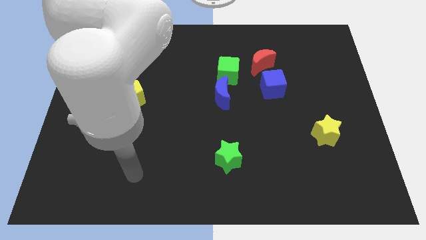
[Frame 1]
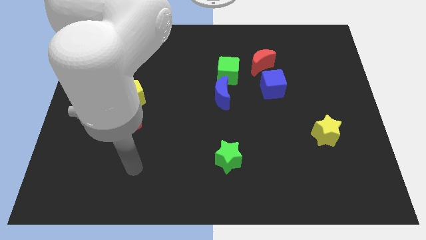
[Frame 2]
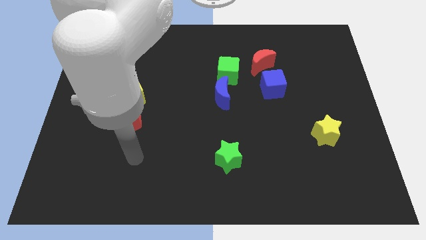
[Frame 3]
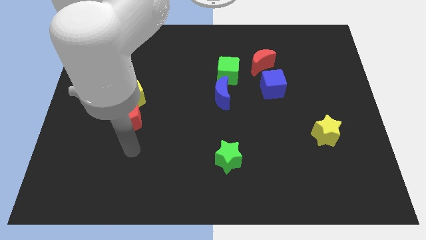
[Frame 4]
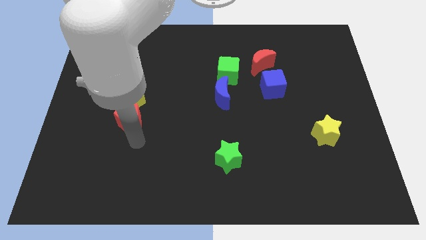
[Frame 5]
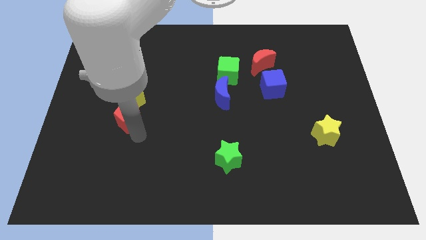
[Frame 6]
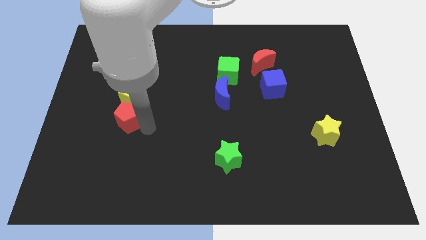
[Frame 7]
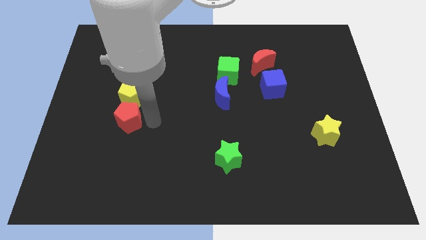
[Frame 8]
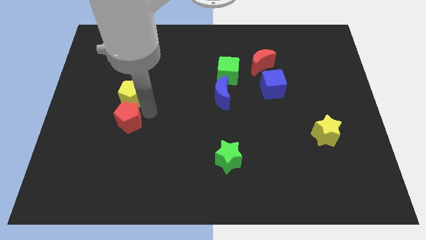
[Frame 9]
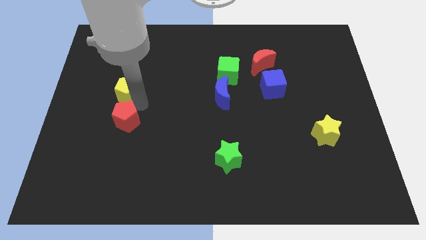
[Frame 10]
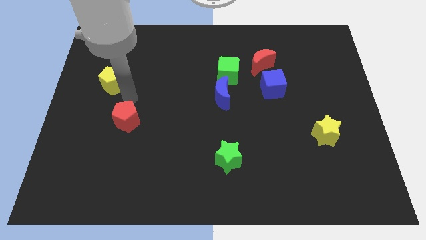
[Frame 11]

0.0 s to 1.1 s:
separate the red pentagon from the yellow pentagon

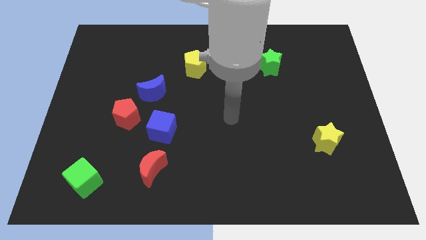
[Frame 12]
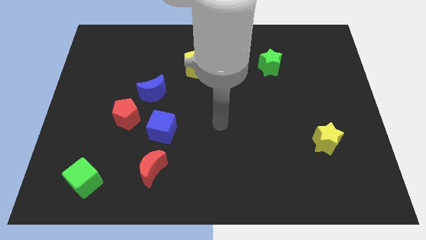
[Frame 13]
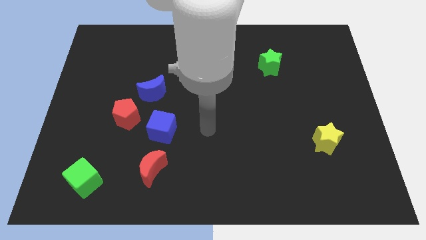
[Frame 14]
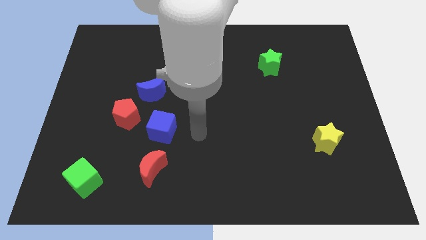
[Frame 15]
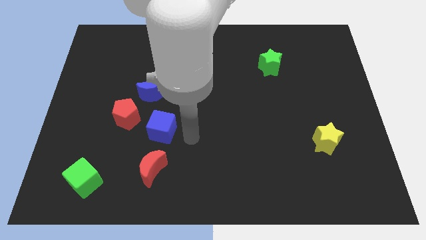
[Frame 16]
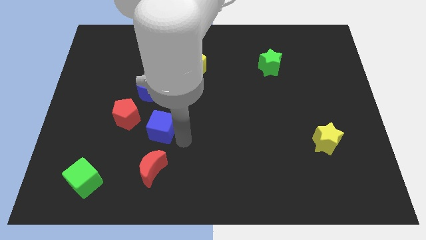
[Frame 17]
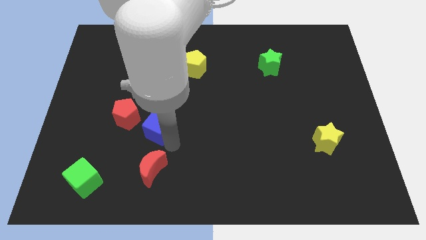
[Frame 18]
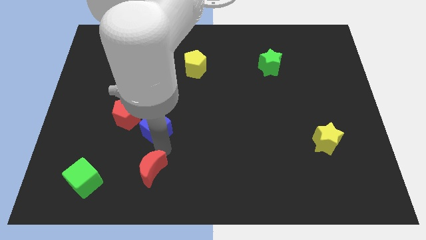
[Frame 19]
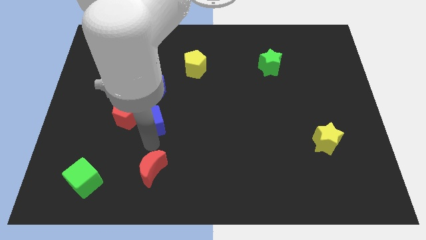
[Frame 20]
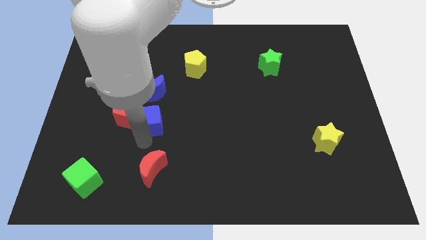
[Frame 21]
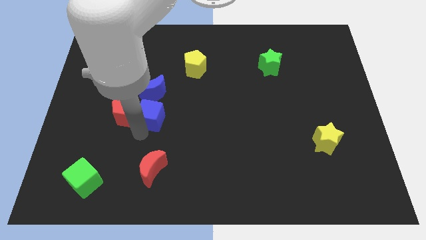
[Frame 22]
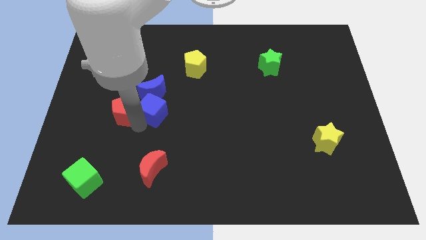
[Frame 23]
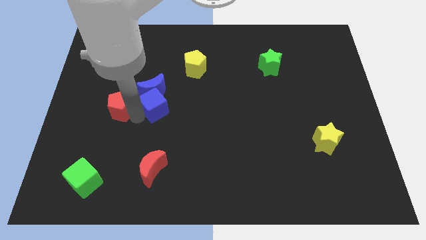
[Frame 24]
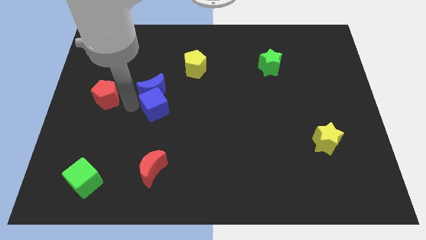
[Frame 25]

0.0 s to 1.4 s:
pull the blue moon apart from the red pentagon

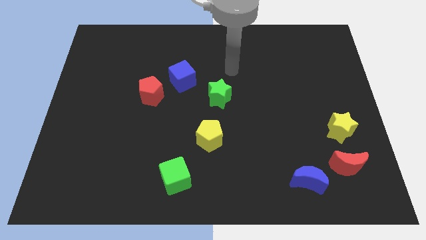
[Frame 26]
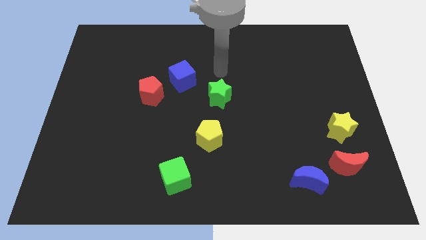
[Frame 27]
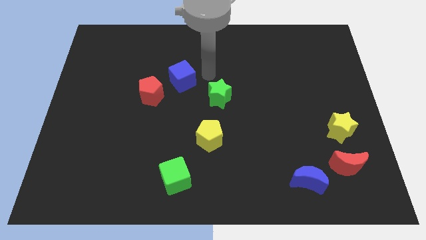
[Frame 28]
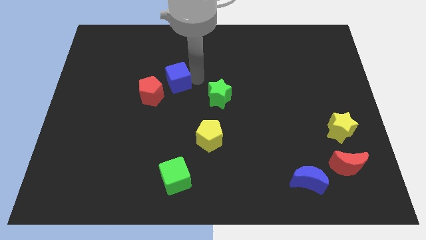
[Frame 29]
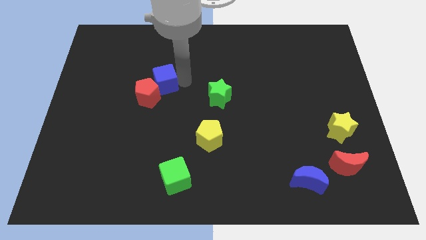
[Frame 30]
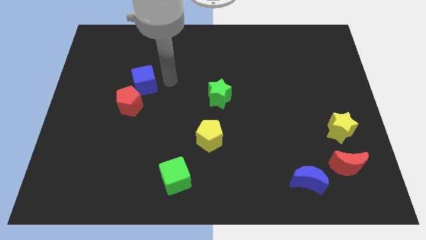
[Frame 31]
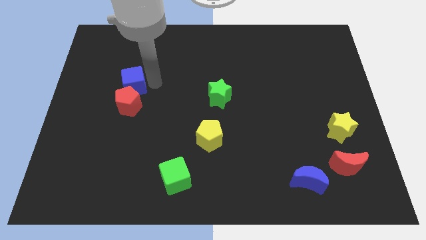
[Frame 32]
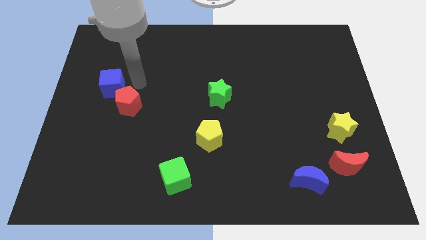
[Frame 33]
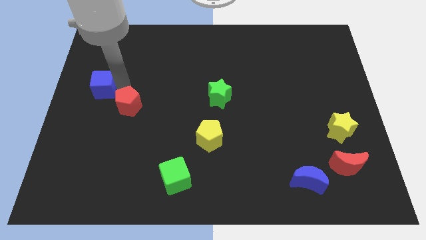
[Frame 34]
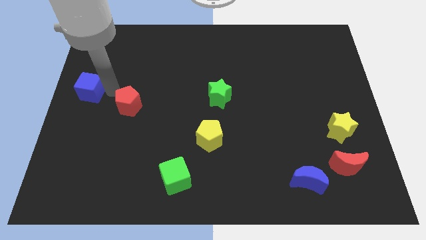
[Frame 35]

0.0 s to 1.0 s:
pull the red pentagon apart from the blue cube

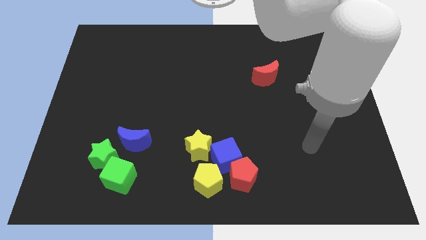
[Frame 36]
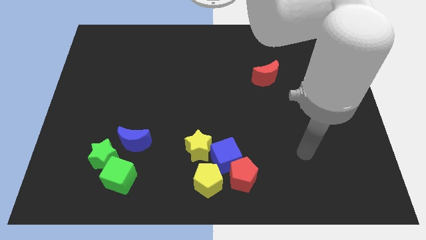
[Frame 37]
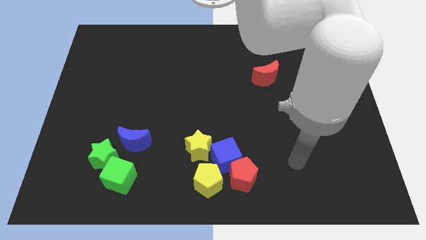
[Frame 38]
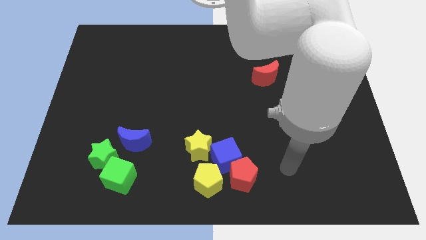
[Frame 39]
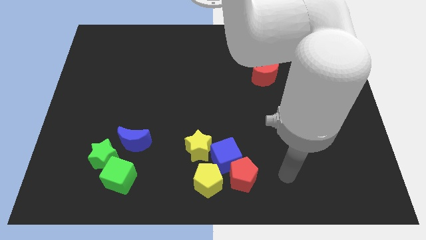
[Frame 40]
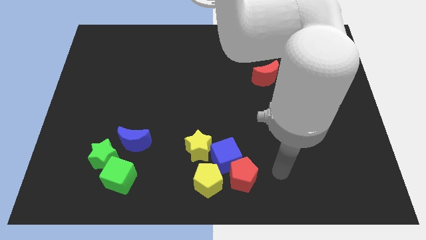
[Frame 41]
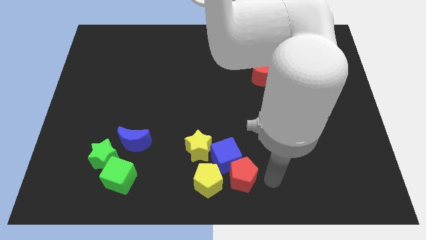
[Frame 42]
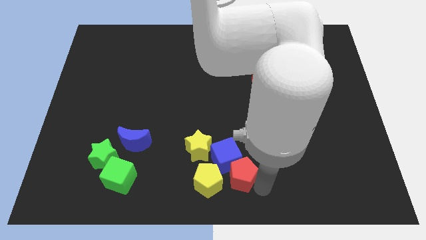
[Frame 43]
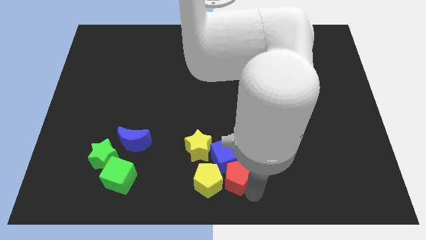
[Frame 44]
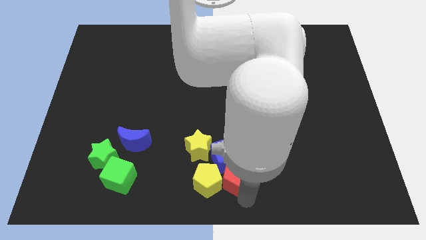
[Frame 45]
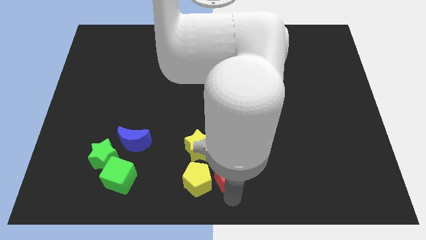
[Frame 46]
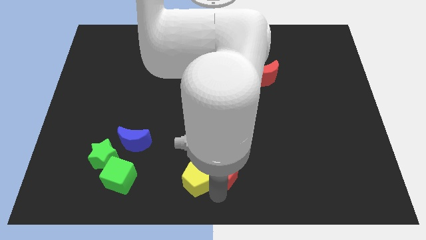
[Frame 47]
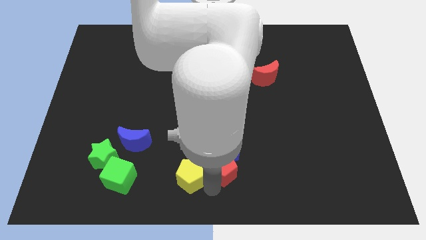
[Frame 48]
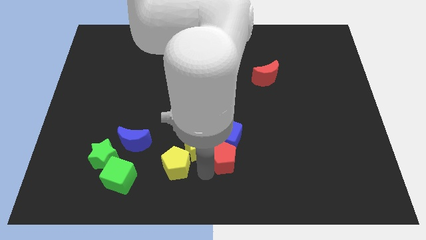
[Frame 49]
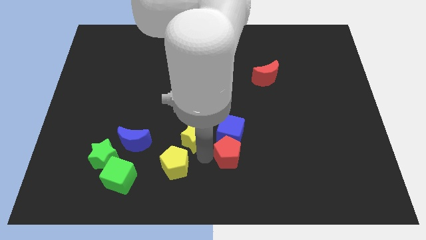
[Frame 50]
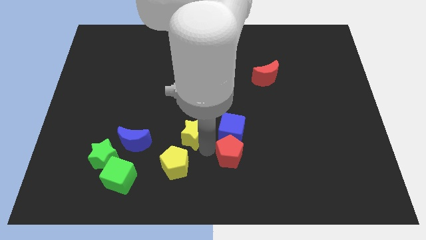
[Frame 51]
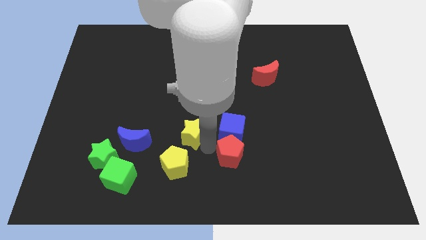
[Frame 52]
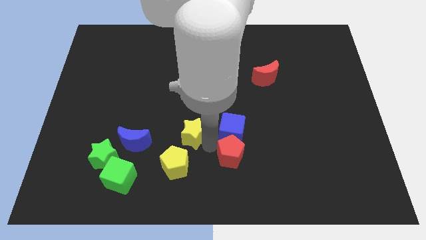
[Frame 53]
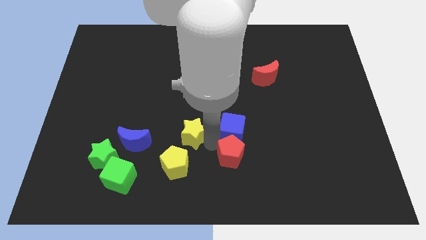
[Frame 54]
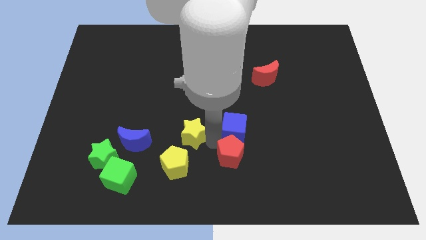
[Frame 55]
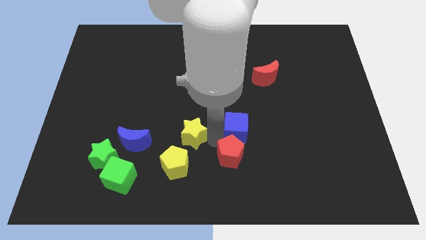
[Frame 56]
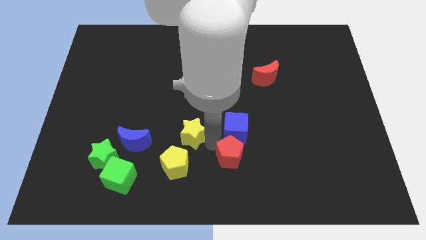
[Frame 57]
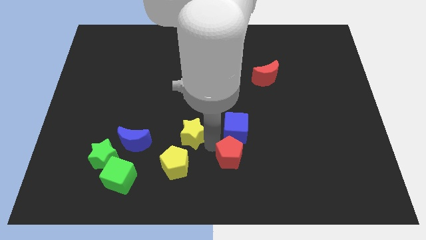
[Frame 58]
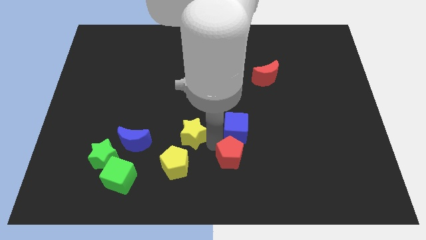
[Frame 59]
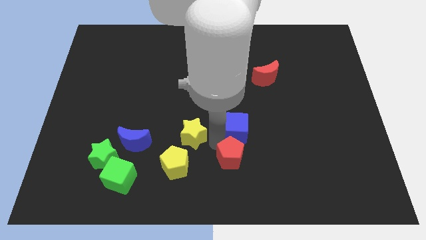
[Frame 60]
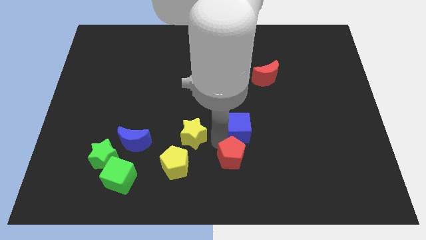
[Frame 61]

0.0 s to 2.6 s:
separate the blue cube from the group

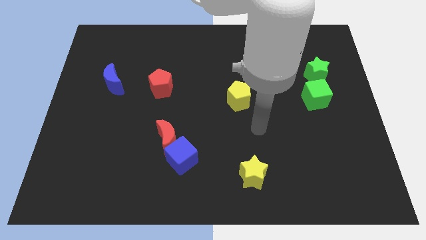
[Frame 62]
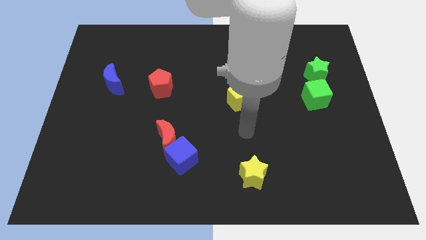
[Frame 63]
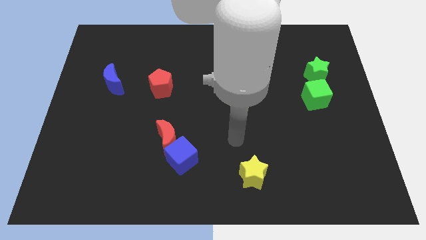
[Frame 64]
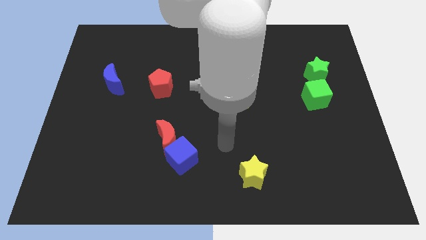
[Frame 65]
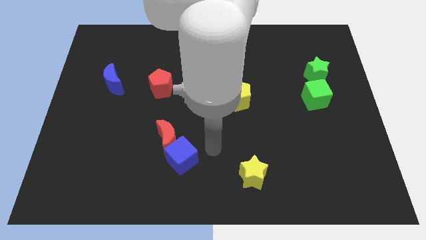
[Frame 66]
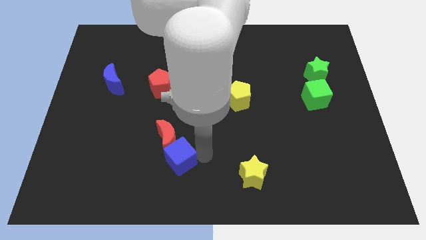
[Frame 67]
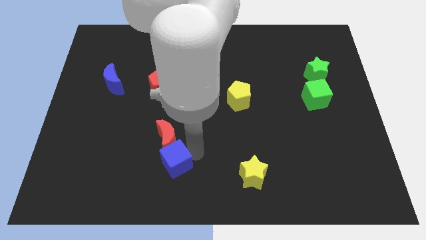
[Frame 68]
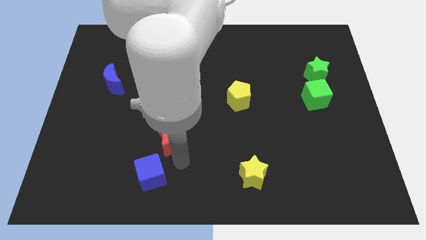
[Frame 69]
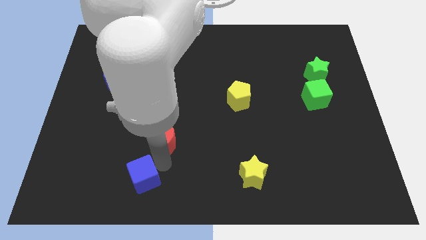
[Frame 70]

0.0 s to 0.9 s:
separate the red moon from the blue cube

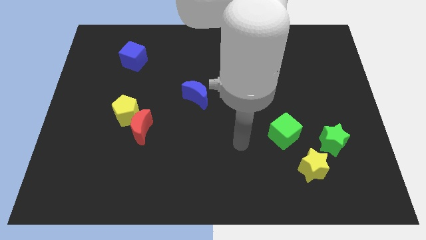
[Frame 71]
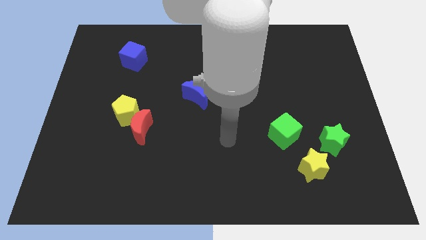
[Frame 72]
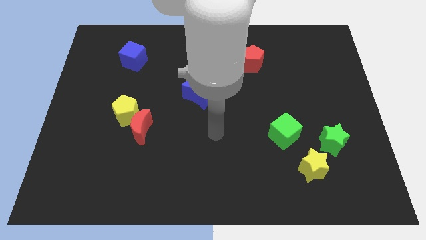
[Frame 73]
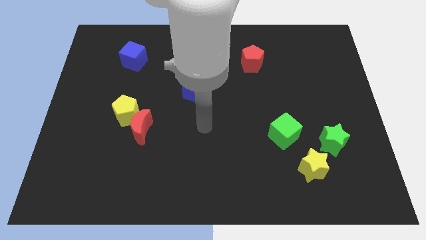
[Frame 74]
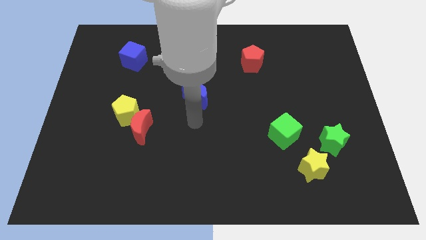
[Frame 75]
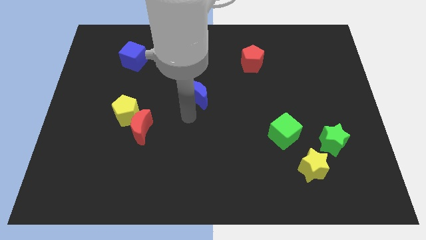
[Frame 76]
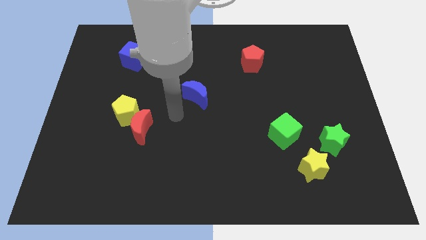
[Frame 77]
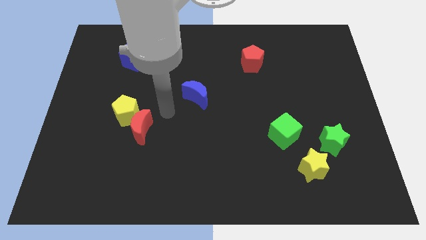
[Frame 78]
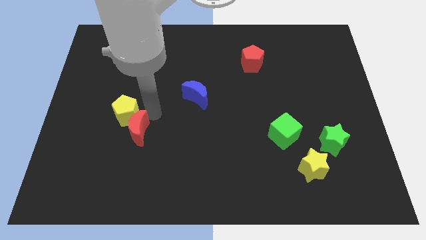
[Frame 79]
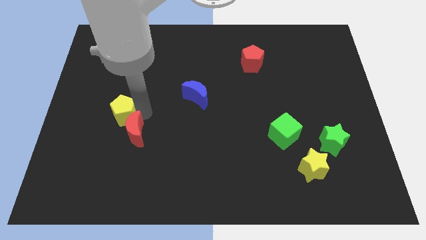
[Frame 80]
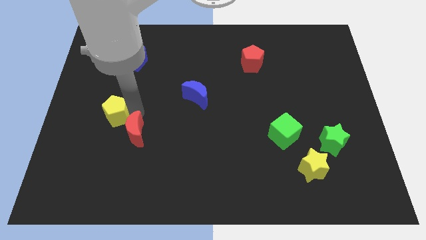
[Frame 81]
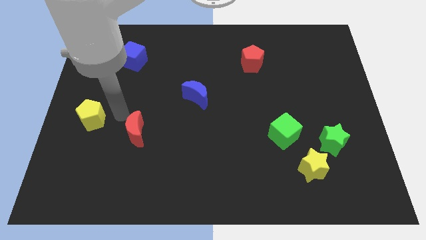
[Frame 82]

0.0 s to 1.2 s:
move the red moon away from the yellow pentagon

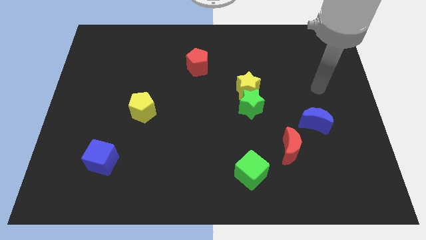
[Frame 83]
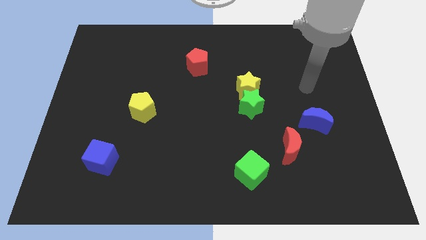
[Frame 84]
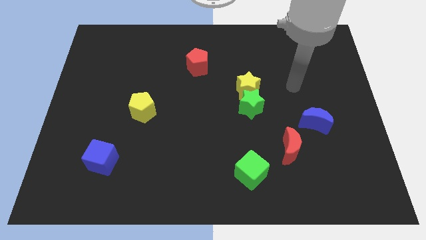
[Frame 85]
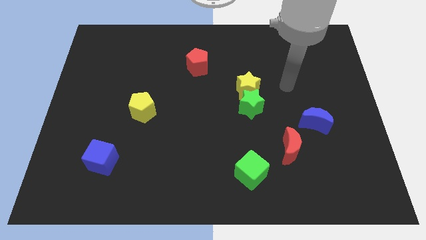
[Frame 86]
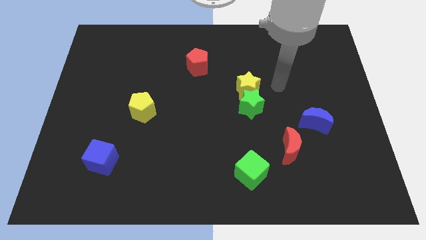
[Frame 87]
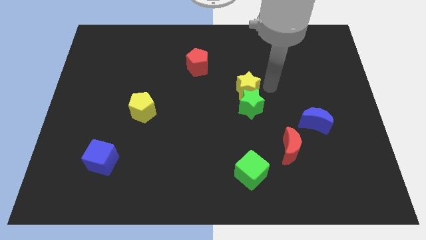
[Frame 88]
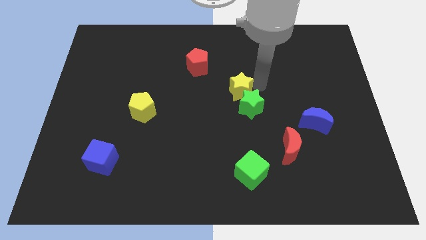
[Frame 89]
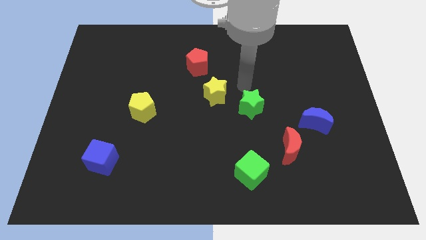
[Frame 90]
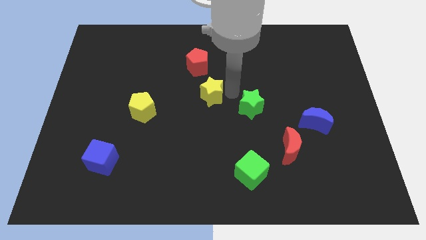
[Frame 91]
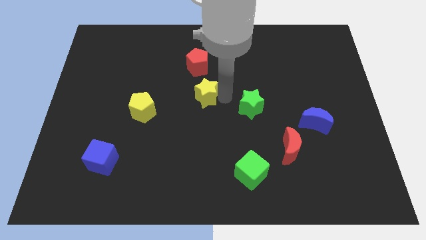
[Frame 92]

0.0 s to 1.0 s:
move the green star away from the yellow star

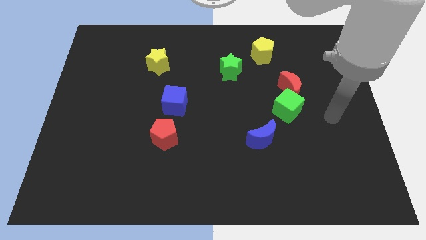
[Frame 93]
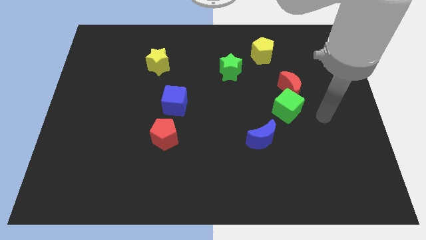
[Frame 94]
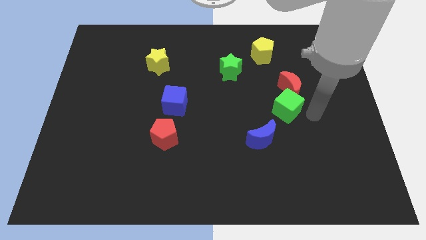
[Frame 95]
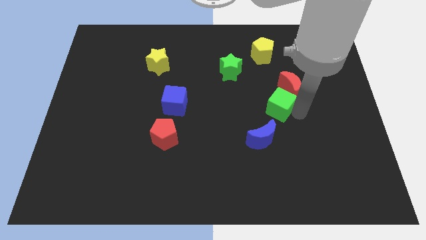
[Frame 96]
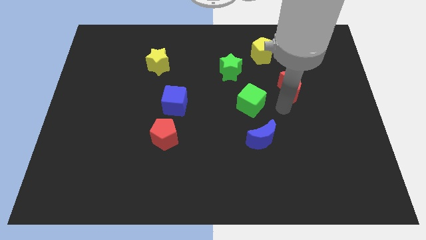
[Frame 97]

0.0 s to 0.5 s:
move the red moon away from the green cube
